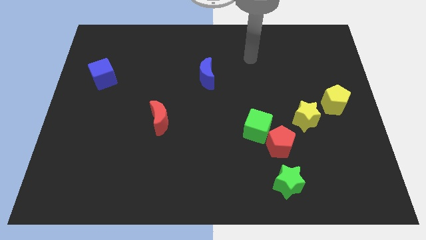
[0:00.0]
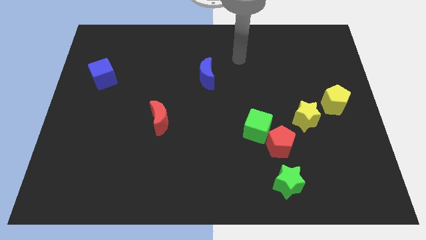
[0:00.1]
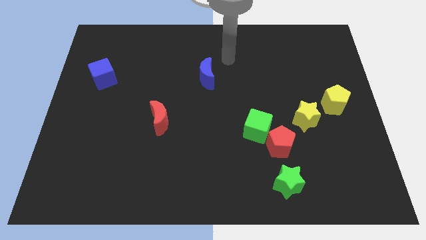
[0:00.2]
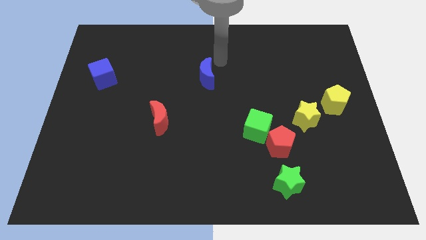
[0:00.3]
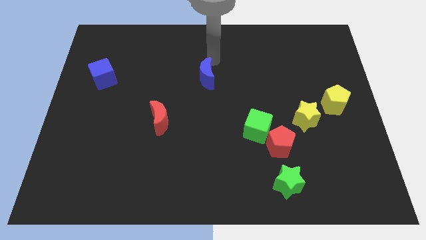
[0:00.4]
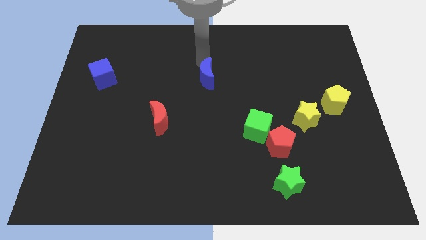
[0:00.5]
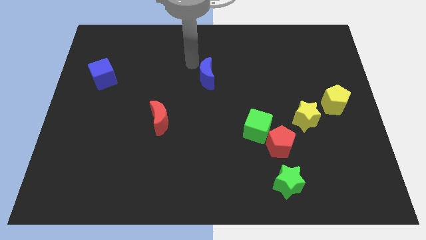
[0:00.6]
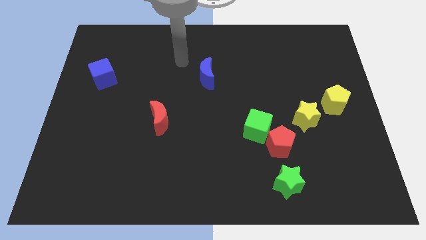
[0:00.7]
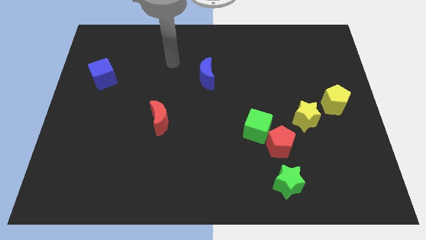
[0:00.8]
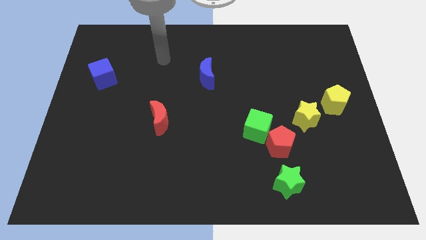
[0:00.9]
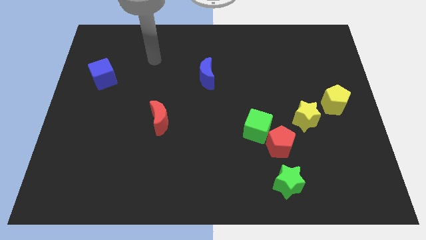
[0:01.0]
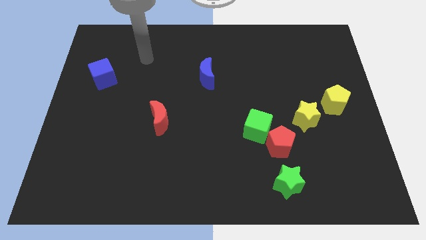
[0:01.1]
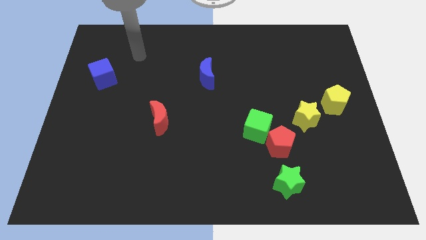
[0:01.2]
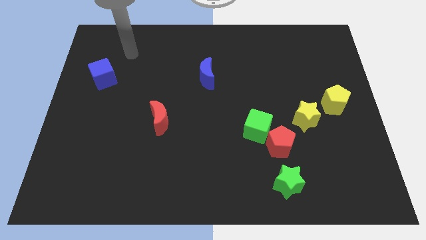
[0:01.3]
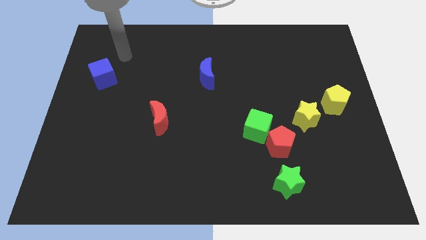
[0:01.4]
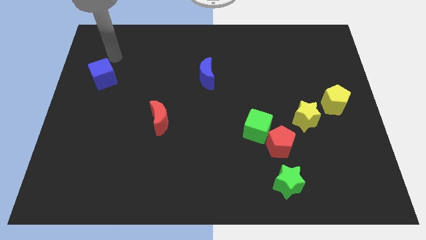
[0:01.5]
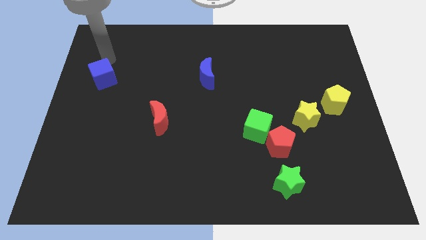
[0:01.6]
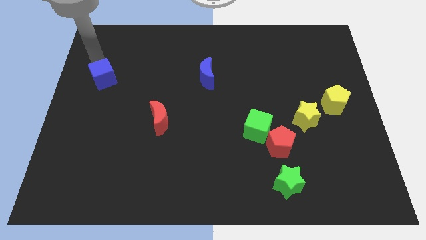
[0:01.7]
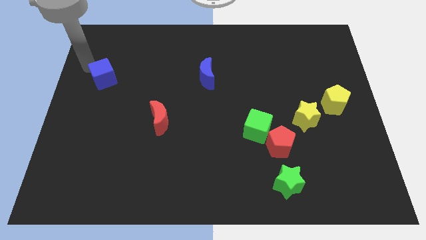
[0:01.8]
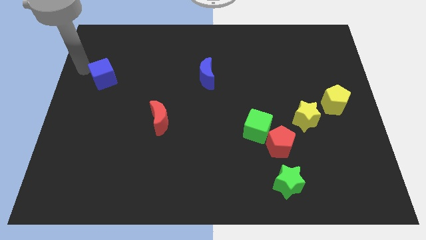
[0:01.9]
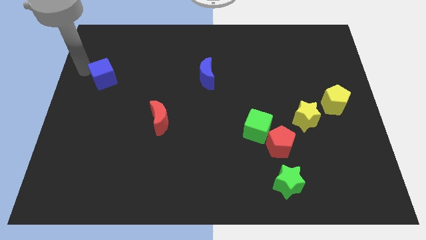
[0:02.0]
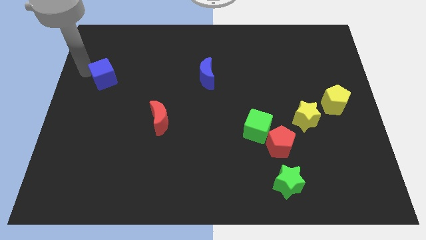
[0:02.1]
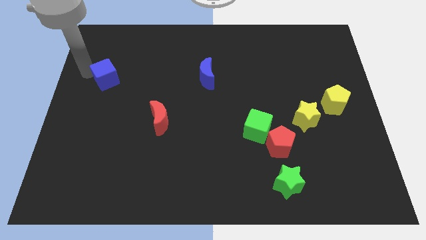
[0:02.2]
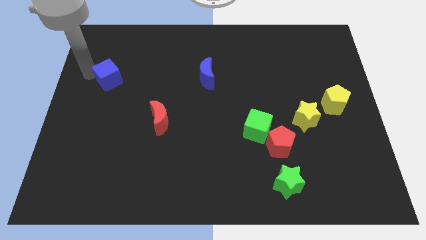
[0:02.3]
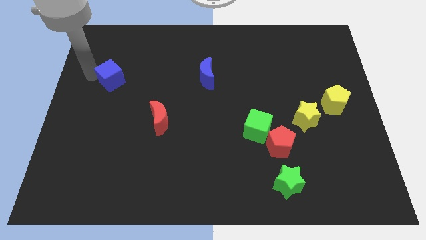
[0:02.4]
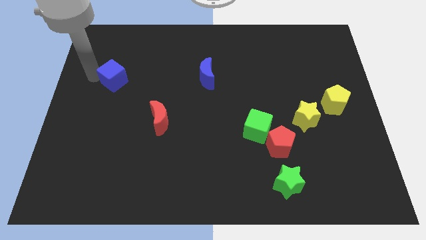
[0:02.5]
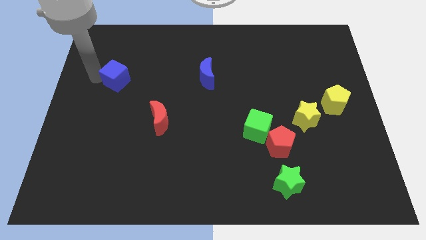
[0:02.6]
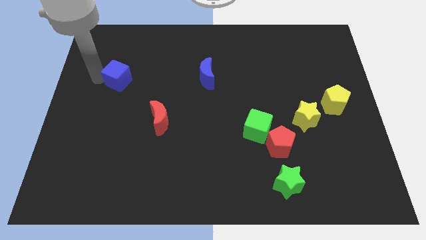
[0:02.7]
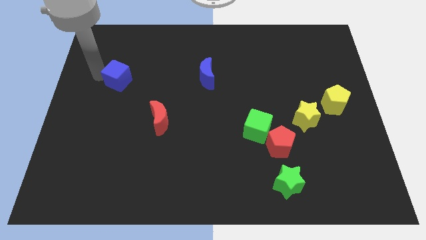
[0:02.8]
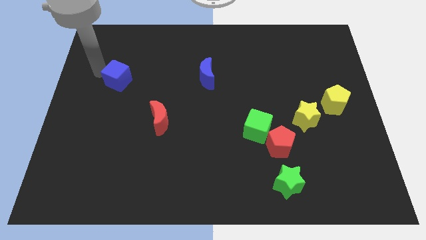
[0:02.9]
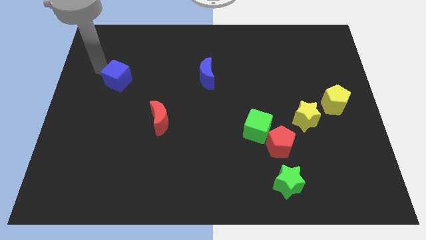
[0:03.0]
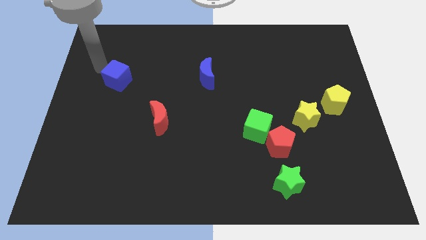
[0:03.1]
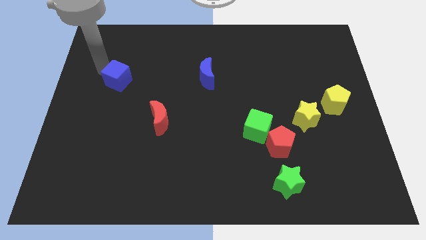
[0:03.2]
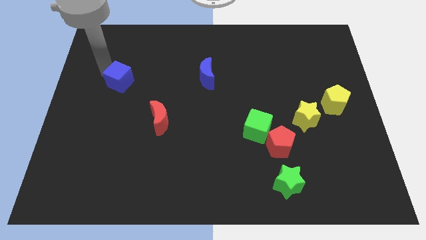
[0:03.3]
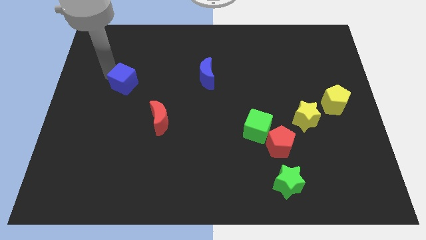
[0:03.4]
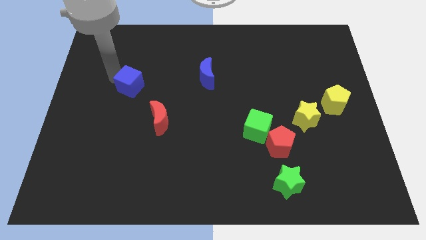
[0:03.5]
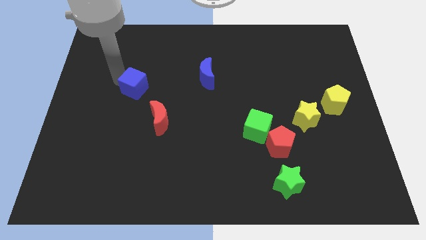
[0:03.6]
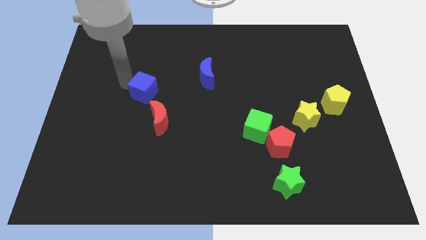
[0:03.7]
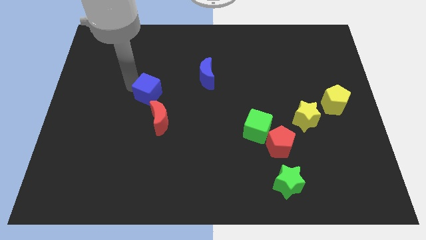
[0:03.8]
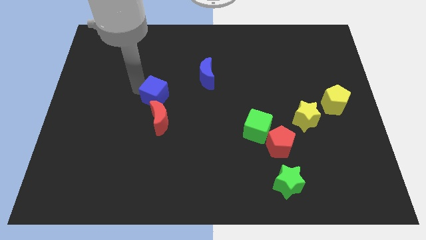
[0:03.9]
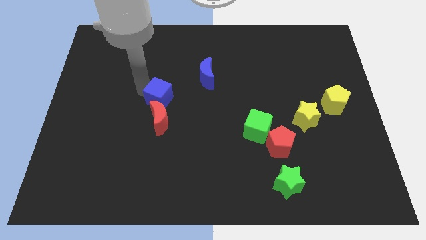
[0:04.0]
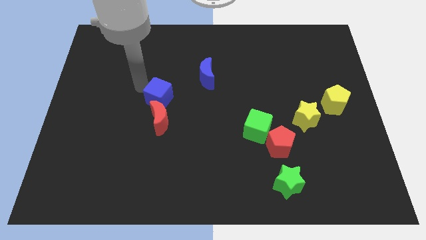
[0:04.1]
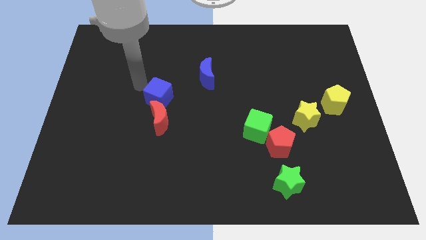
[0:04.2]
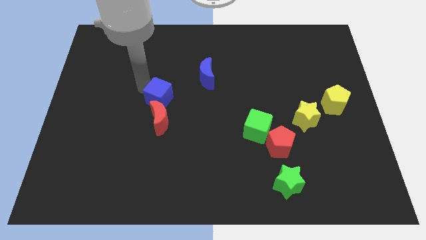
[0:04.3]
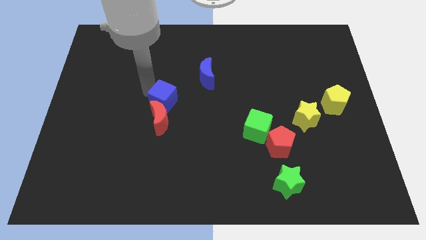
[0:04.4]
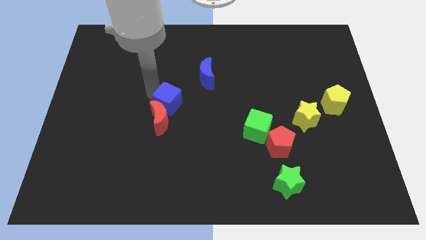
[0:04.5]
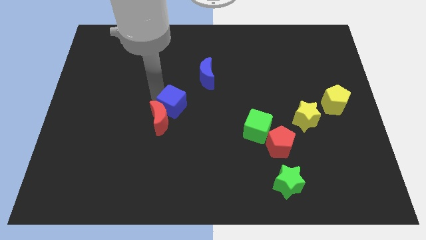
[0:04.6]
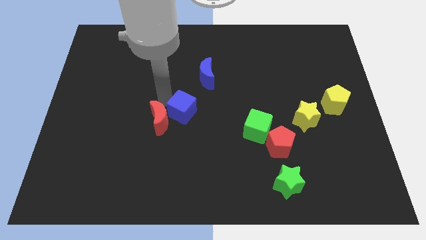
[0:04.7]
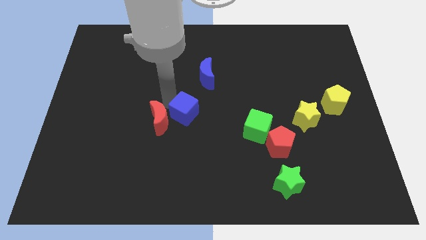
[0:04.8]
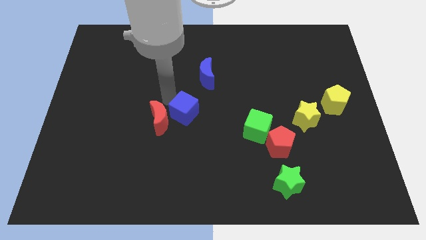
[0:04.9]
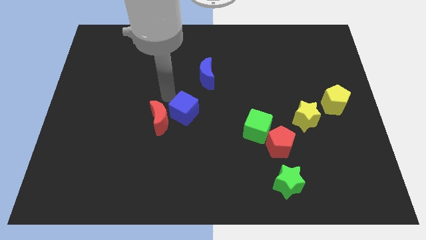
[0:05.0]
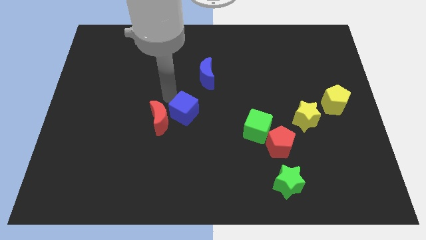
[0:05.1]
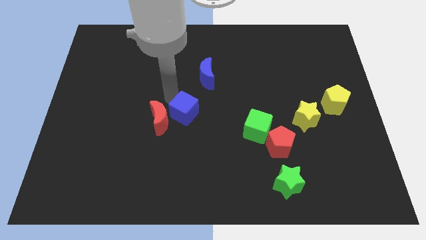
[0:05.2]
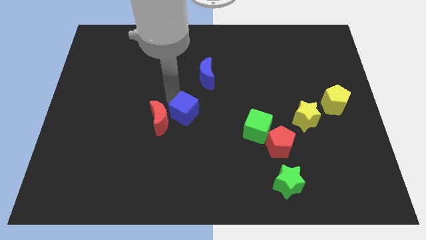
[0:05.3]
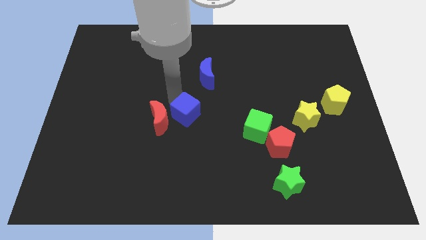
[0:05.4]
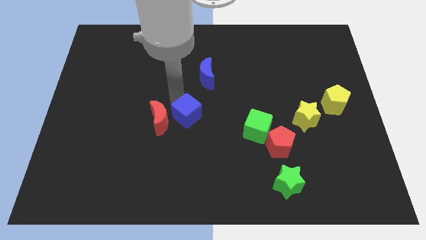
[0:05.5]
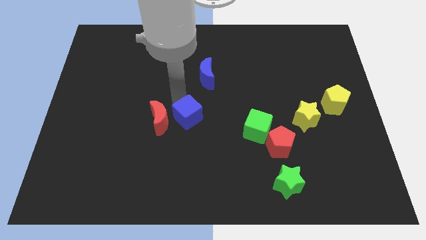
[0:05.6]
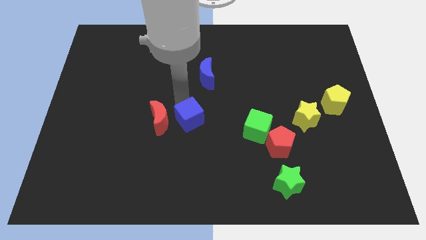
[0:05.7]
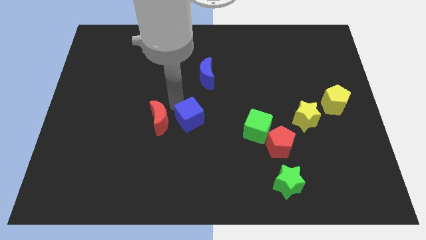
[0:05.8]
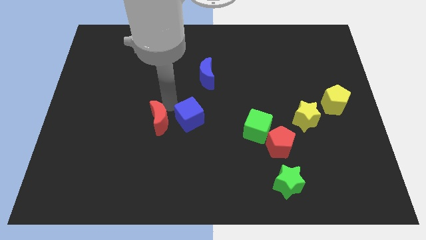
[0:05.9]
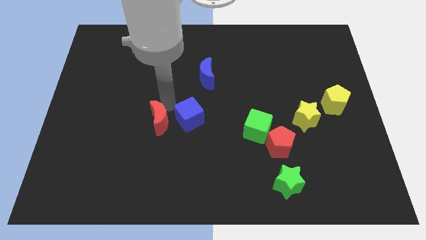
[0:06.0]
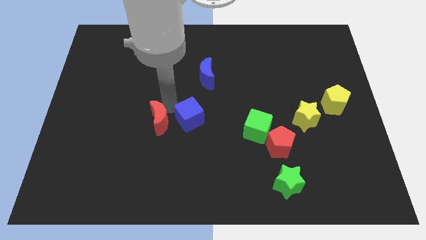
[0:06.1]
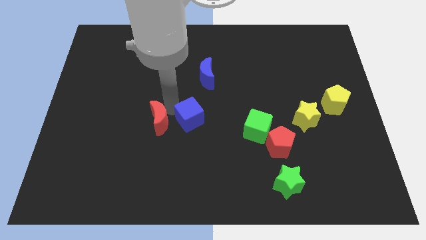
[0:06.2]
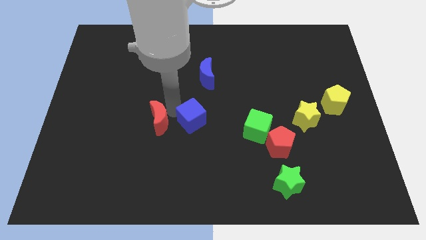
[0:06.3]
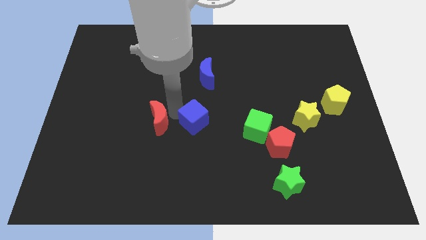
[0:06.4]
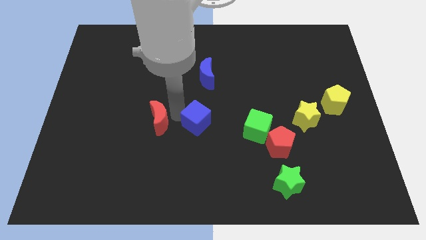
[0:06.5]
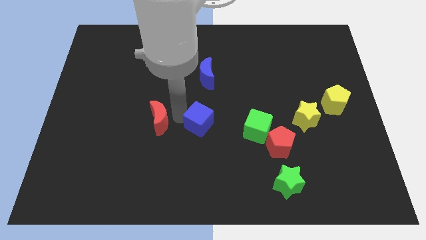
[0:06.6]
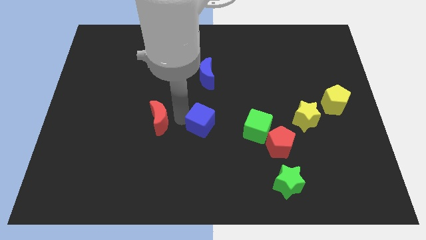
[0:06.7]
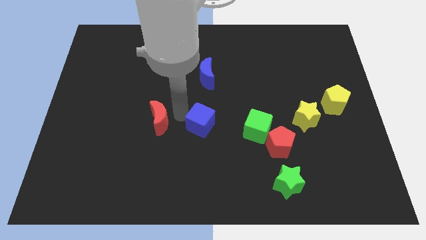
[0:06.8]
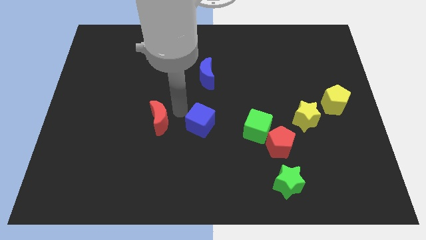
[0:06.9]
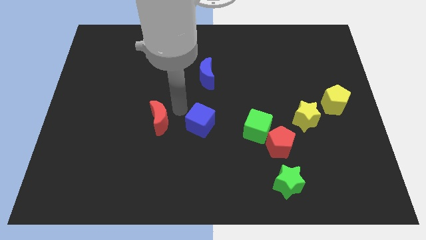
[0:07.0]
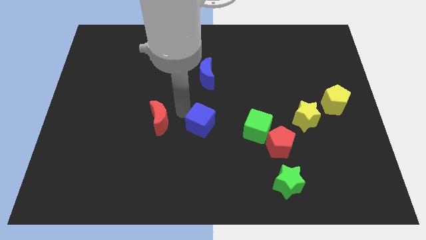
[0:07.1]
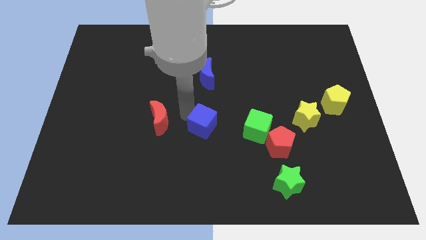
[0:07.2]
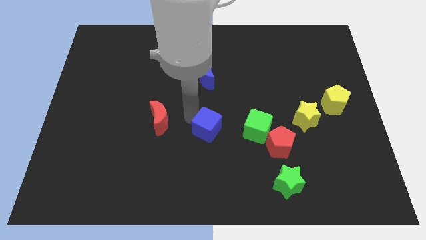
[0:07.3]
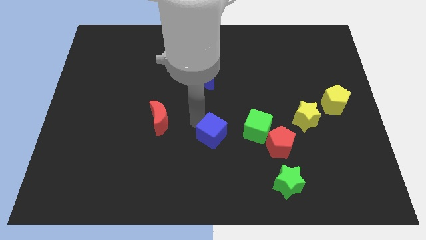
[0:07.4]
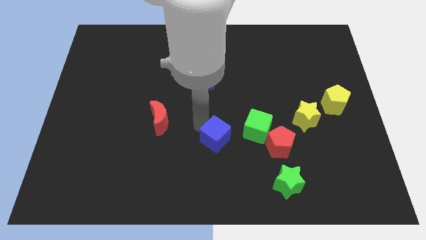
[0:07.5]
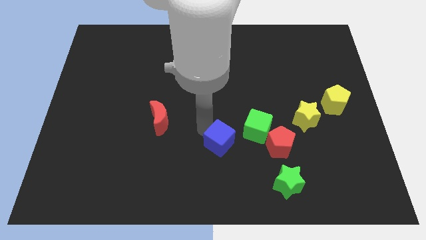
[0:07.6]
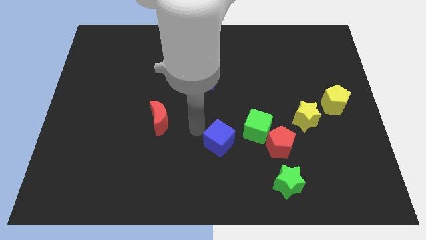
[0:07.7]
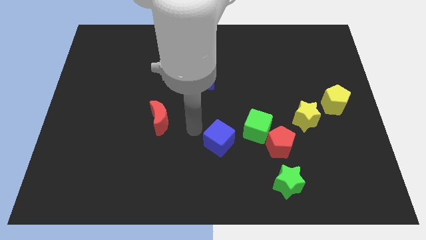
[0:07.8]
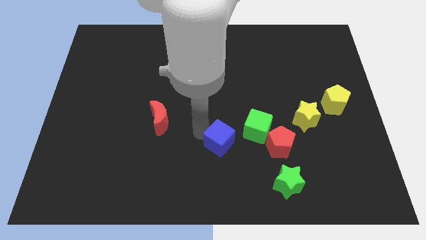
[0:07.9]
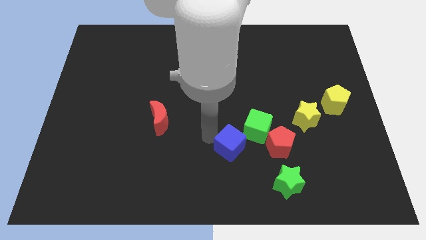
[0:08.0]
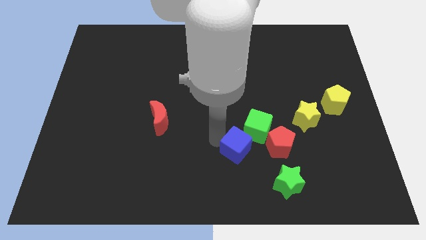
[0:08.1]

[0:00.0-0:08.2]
push the blue cube to the top left of the green star
